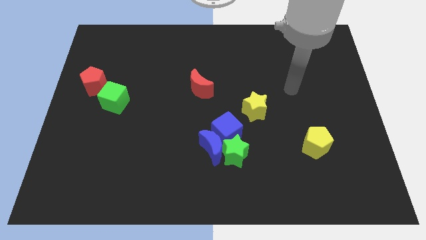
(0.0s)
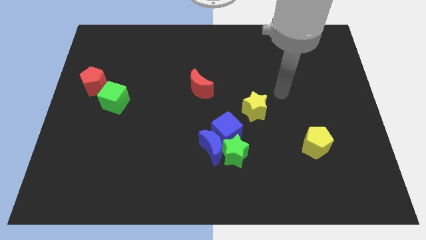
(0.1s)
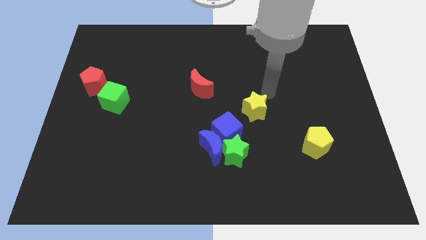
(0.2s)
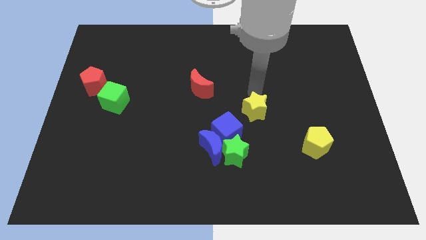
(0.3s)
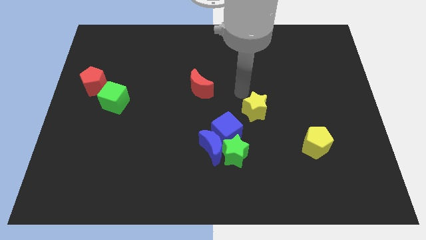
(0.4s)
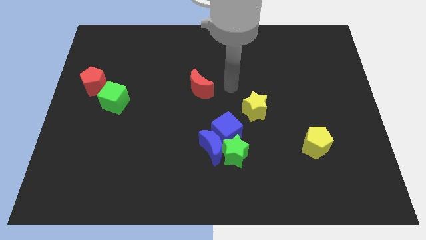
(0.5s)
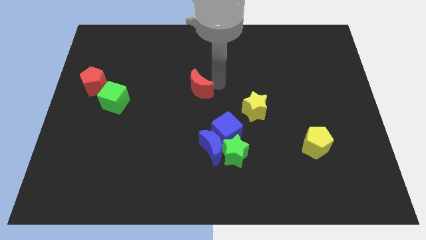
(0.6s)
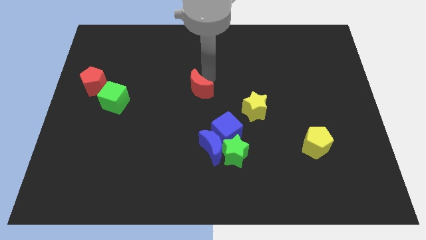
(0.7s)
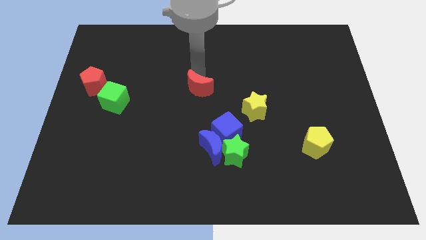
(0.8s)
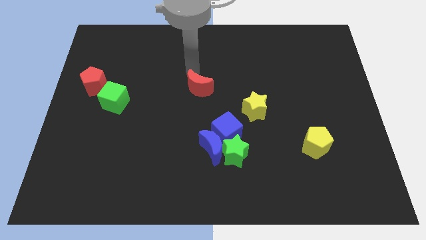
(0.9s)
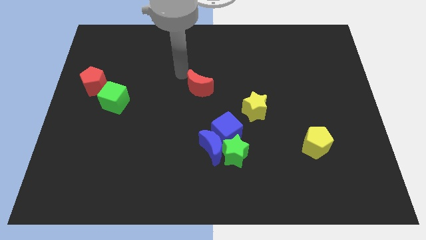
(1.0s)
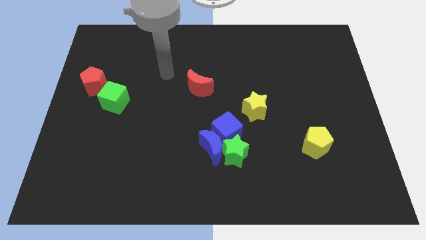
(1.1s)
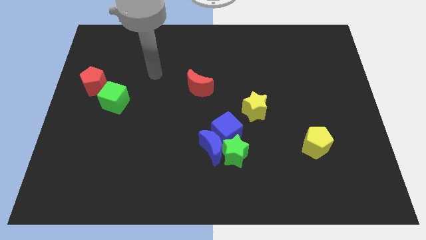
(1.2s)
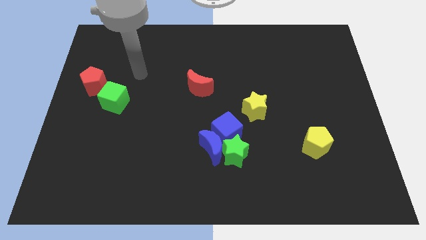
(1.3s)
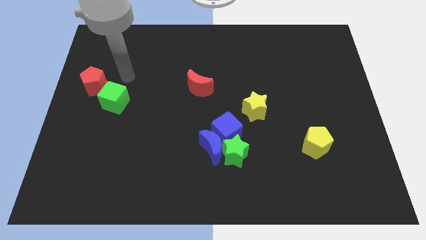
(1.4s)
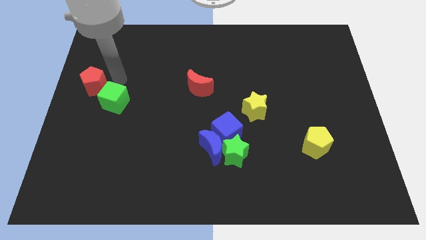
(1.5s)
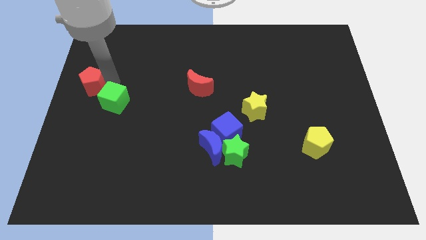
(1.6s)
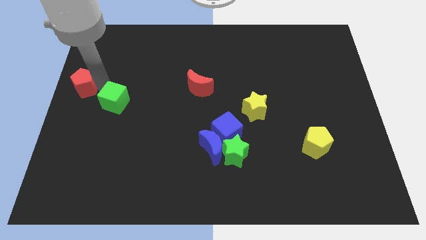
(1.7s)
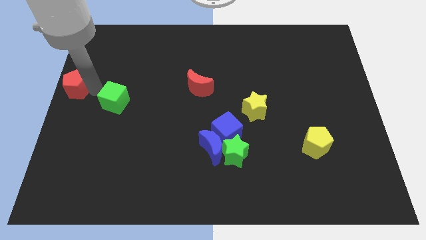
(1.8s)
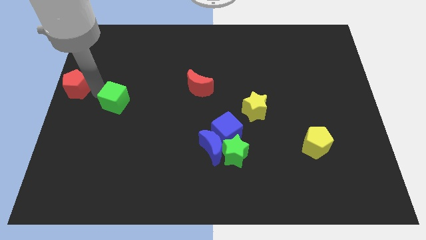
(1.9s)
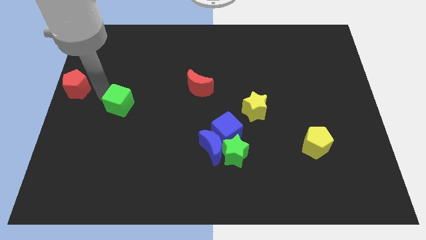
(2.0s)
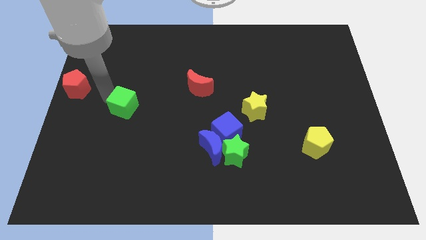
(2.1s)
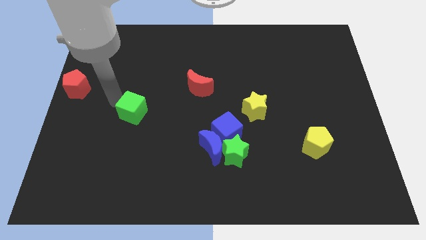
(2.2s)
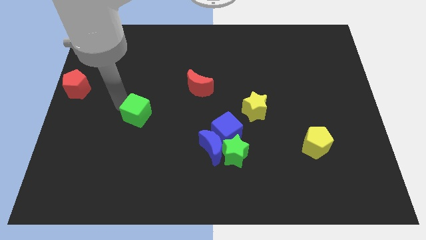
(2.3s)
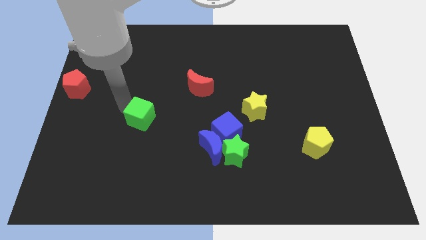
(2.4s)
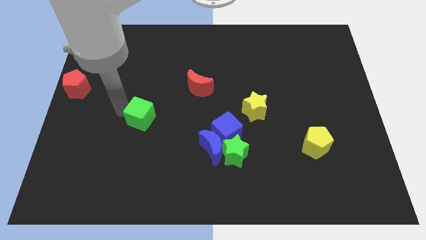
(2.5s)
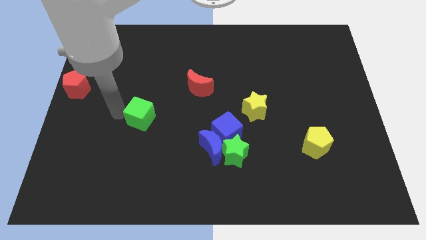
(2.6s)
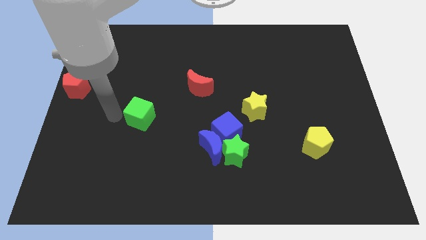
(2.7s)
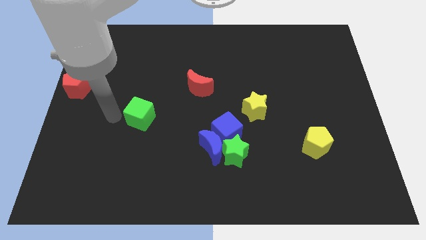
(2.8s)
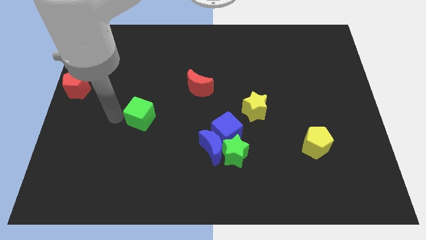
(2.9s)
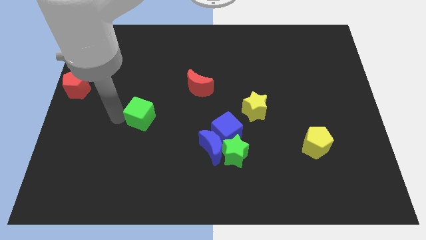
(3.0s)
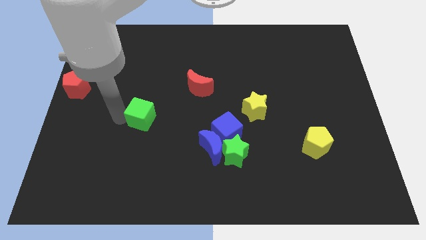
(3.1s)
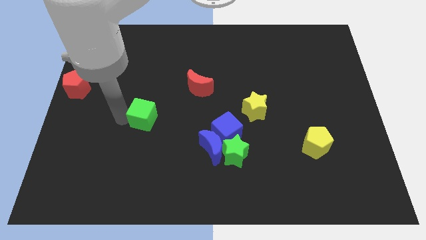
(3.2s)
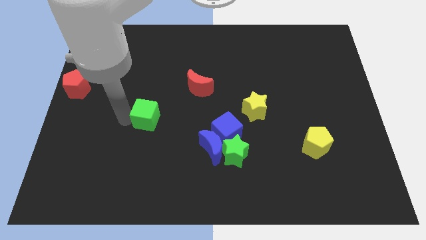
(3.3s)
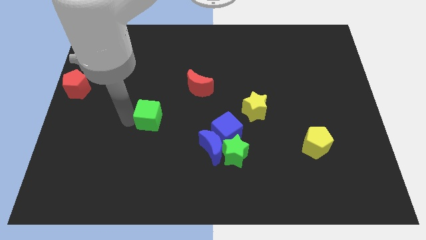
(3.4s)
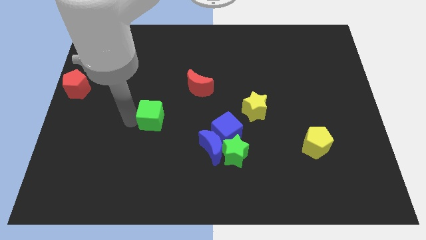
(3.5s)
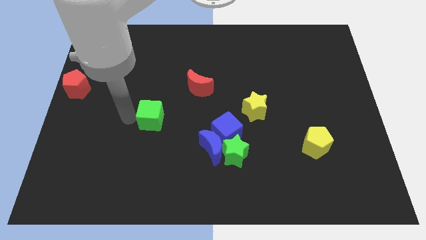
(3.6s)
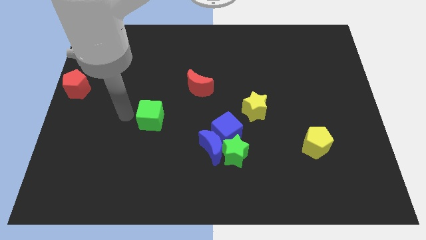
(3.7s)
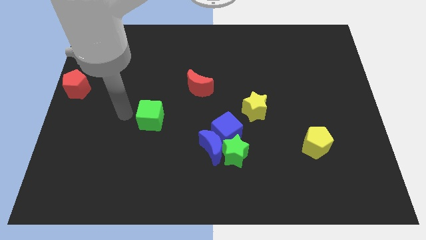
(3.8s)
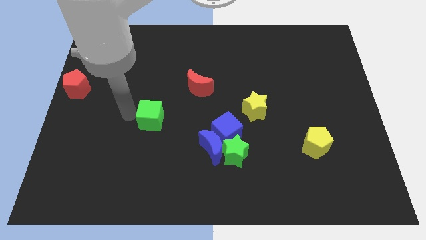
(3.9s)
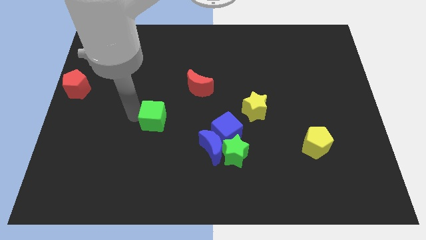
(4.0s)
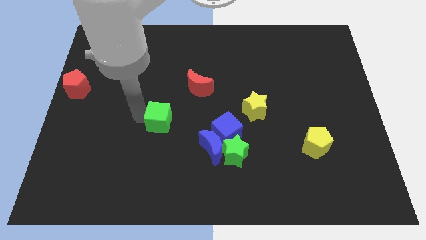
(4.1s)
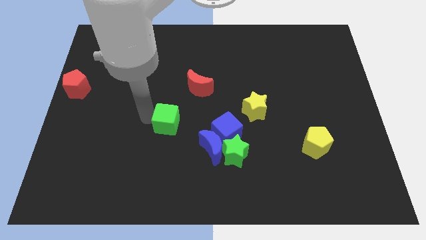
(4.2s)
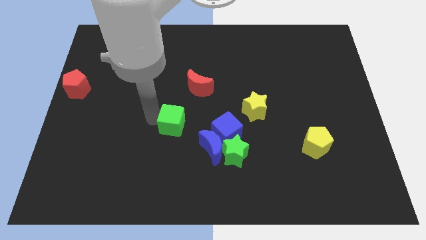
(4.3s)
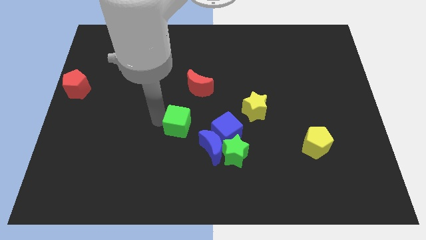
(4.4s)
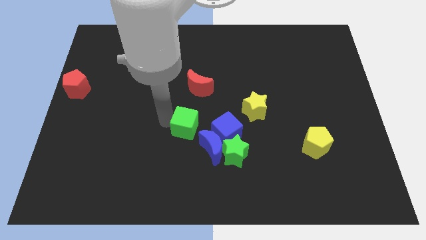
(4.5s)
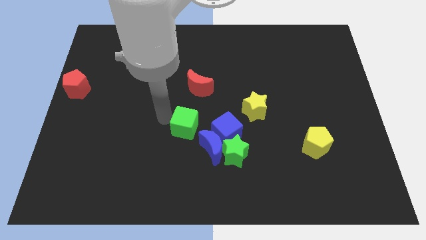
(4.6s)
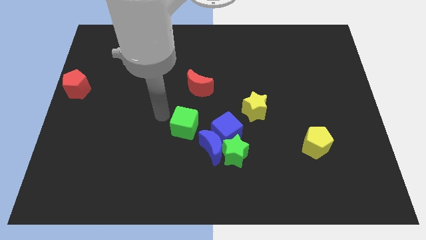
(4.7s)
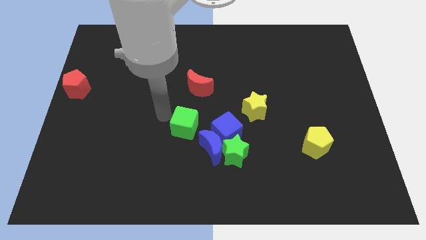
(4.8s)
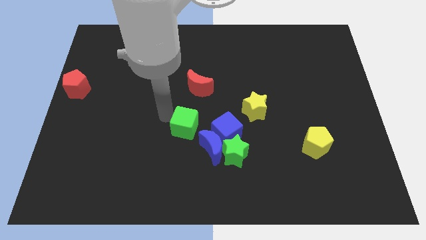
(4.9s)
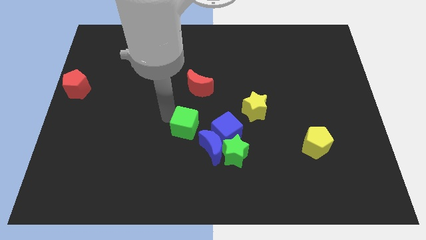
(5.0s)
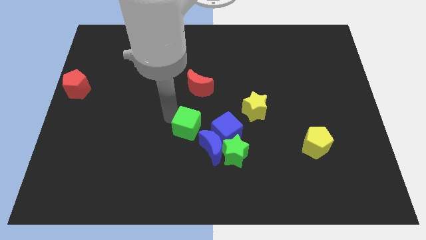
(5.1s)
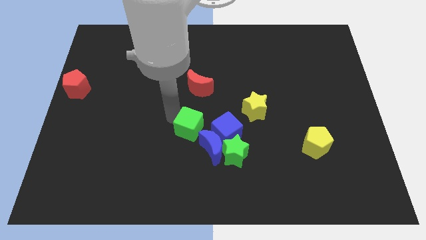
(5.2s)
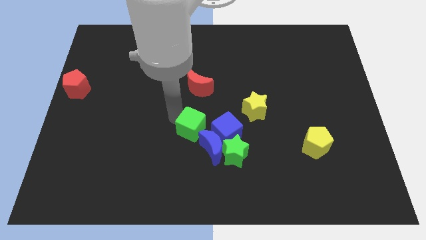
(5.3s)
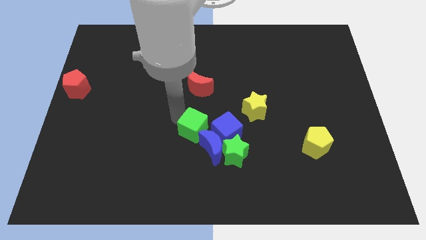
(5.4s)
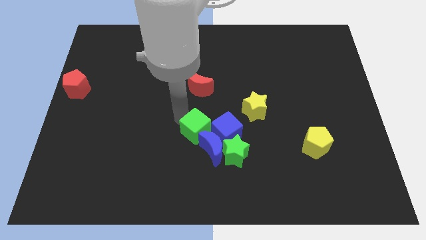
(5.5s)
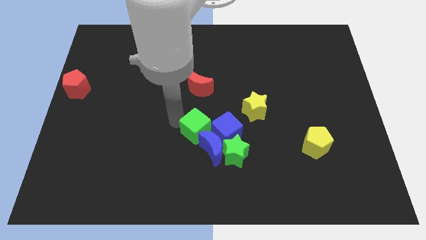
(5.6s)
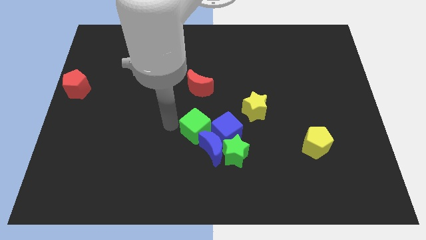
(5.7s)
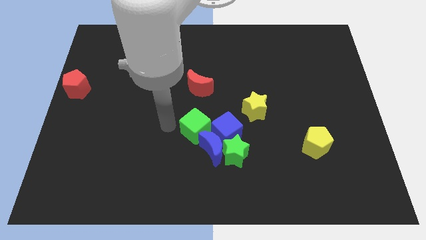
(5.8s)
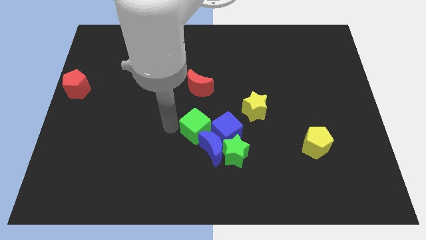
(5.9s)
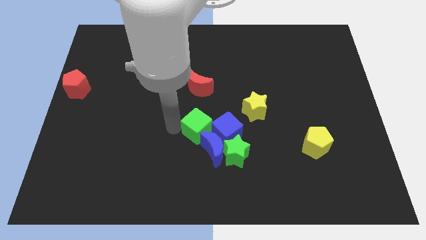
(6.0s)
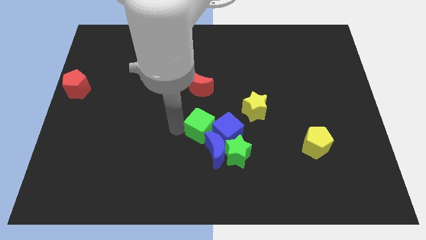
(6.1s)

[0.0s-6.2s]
put the green cube next to the blue cube

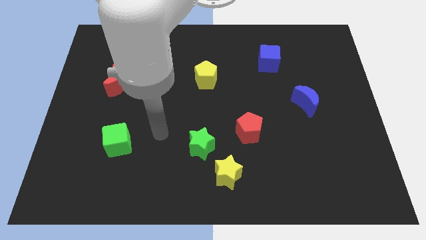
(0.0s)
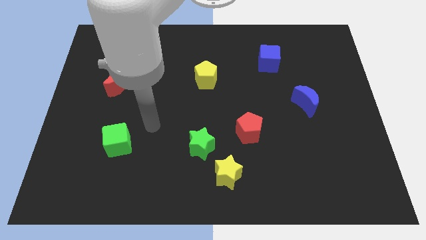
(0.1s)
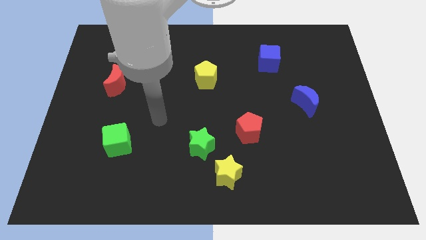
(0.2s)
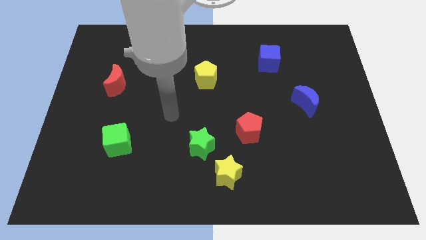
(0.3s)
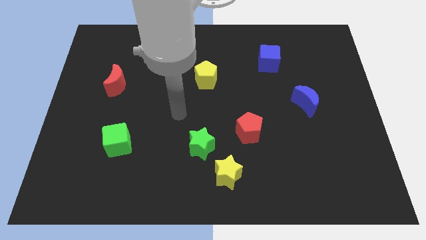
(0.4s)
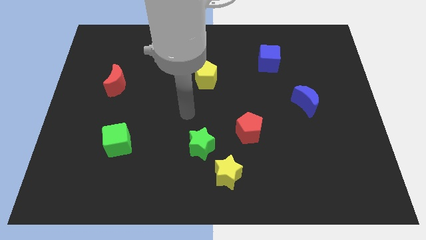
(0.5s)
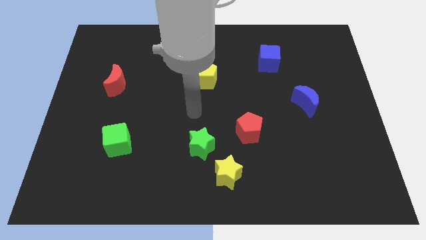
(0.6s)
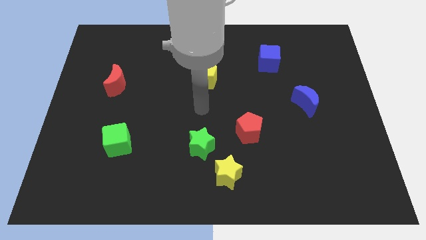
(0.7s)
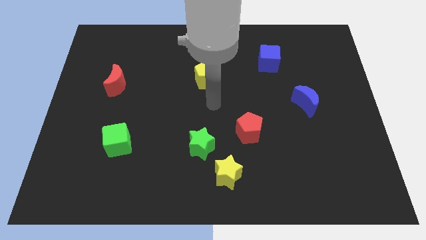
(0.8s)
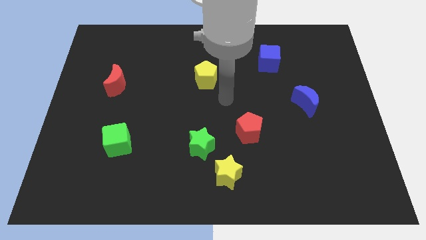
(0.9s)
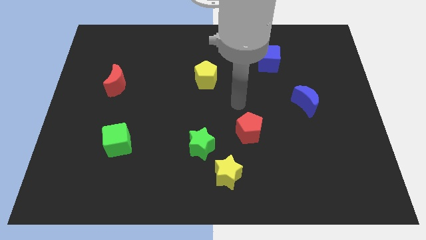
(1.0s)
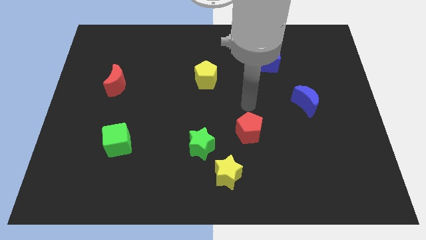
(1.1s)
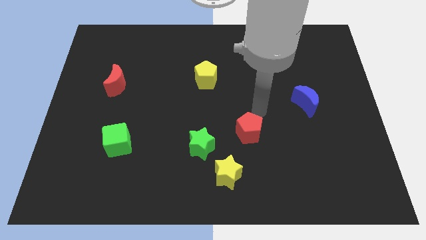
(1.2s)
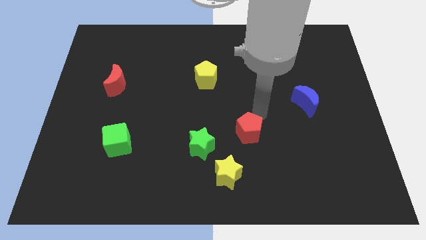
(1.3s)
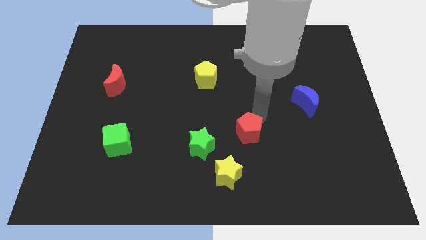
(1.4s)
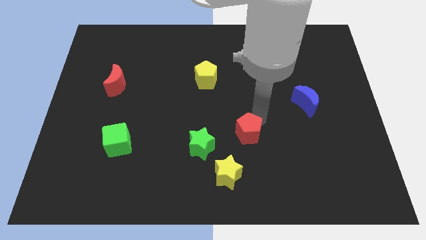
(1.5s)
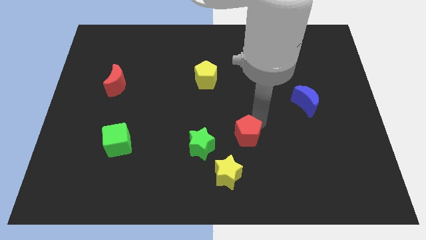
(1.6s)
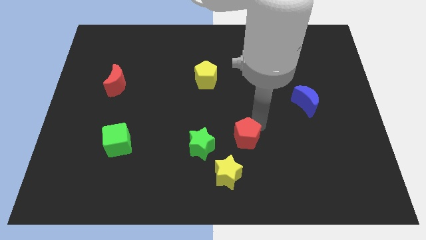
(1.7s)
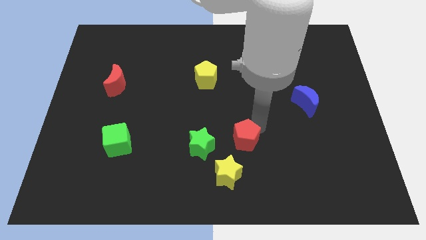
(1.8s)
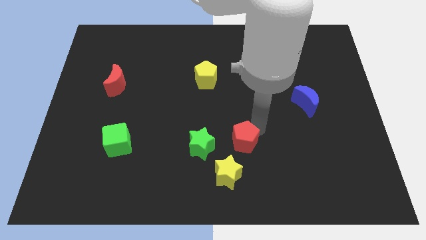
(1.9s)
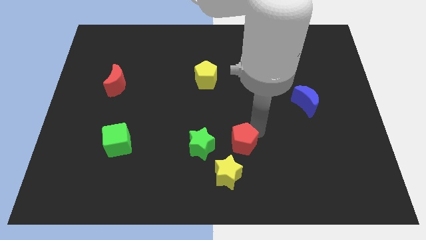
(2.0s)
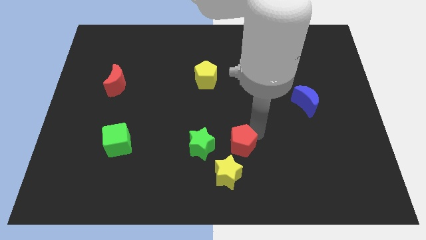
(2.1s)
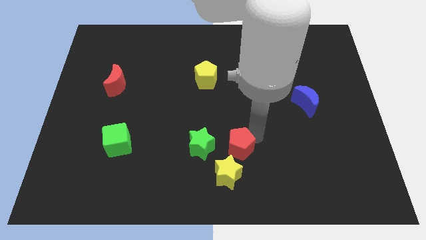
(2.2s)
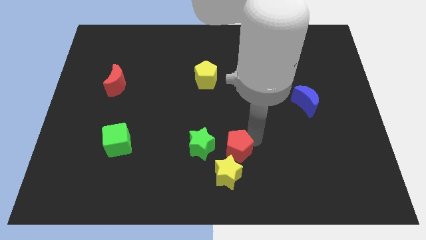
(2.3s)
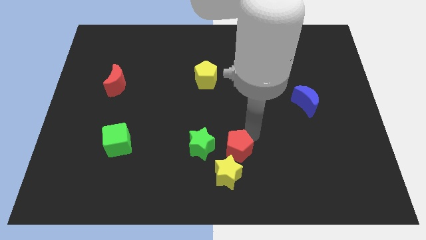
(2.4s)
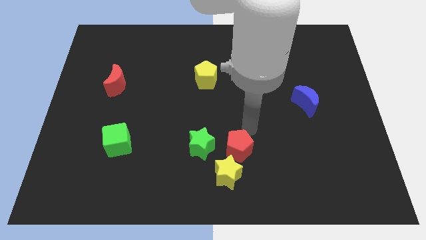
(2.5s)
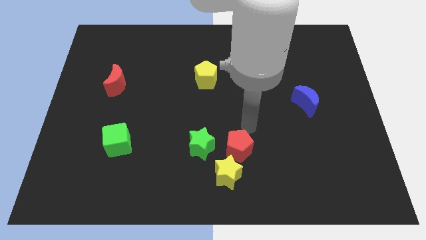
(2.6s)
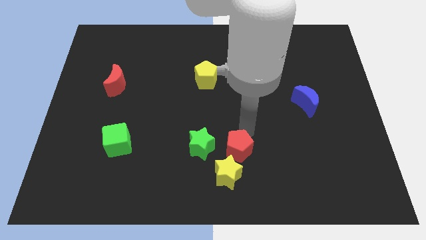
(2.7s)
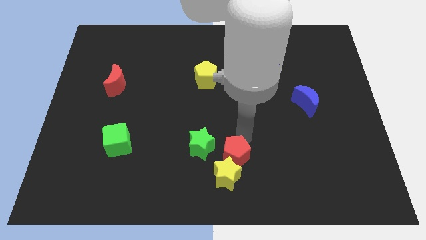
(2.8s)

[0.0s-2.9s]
push the red pentagon next to the yellow star
